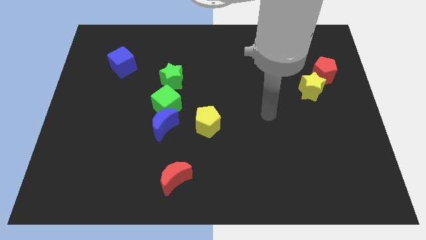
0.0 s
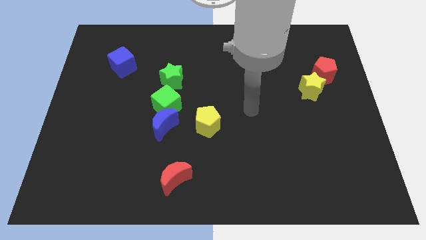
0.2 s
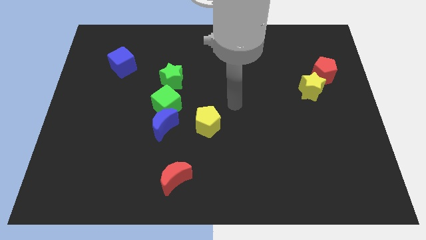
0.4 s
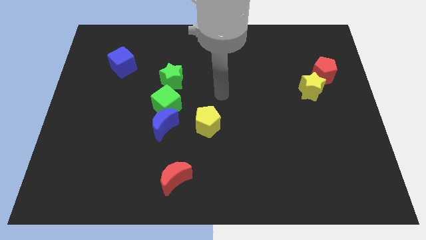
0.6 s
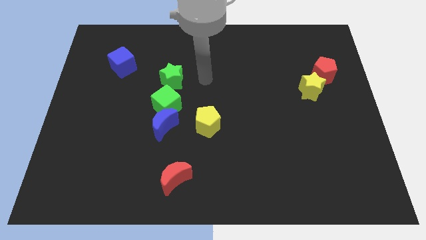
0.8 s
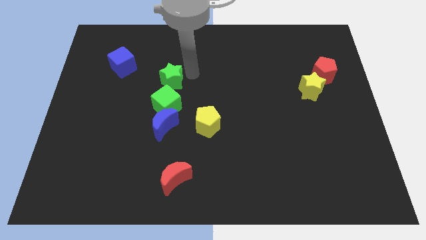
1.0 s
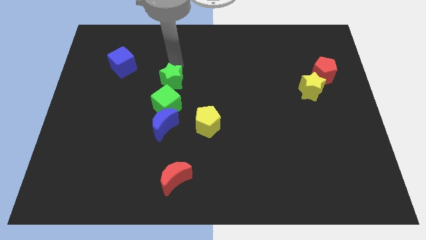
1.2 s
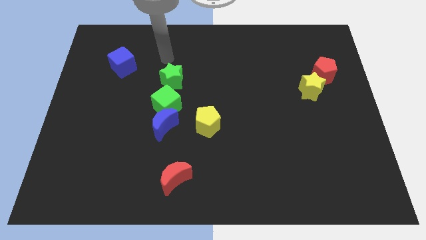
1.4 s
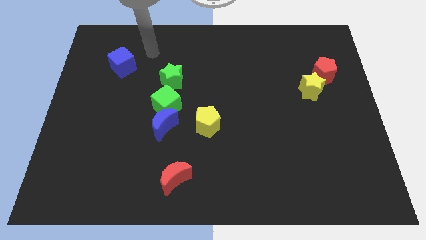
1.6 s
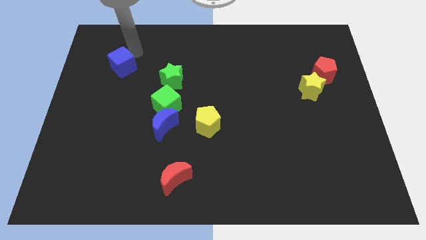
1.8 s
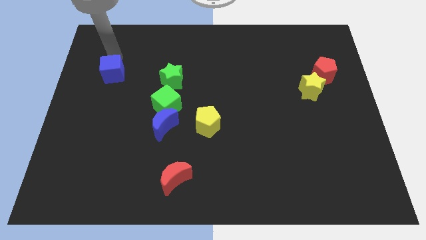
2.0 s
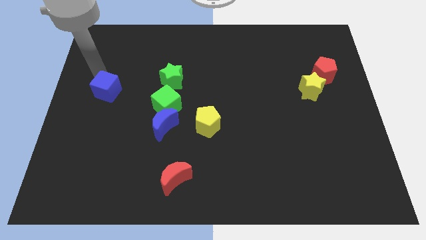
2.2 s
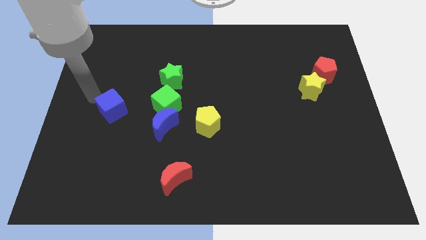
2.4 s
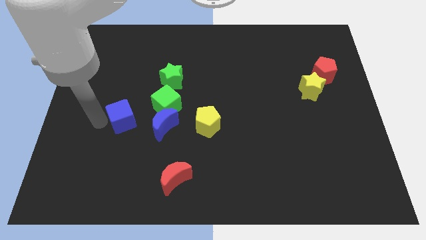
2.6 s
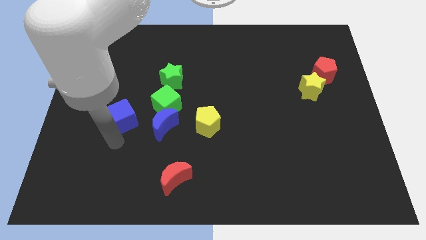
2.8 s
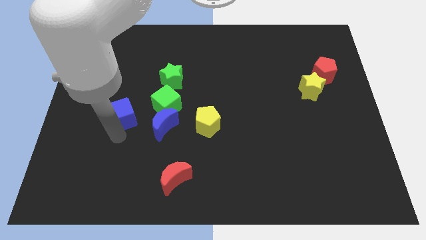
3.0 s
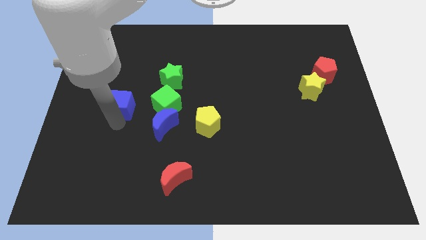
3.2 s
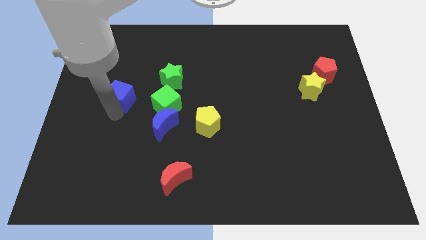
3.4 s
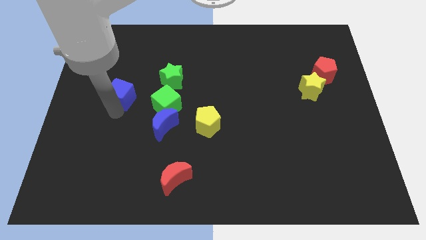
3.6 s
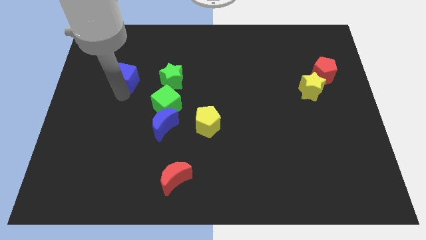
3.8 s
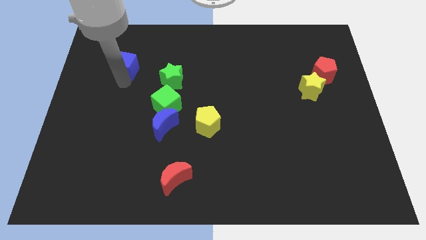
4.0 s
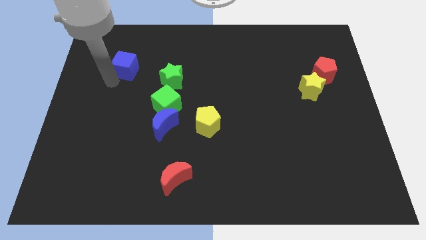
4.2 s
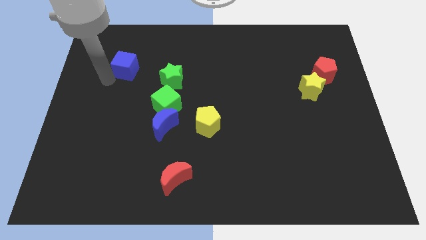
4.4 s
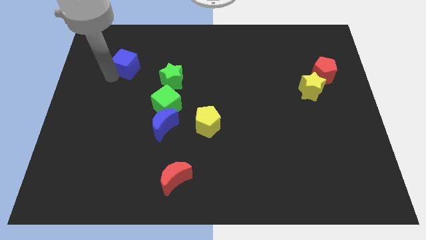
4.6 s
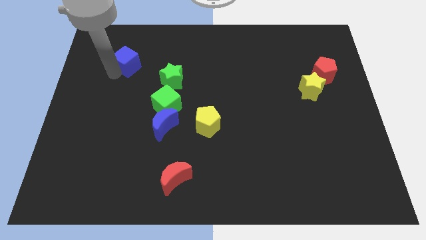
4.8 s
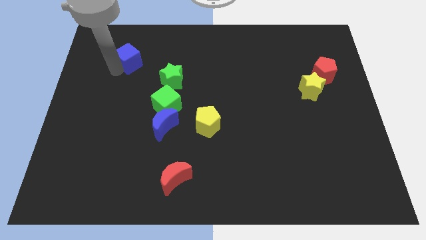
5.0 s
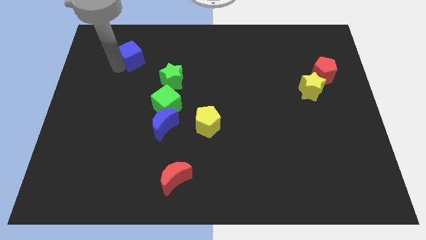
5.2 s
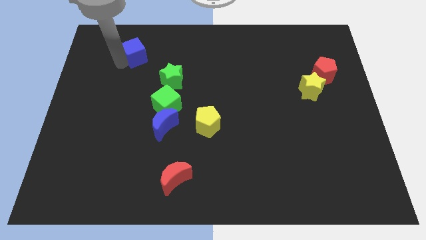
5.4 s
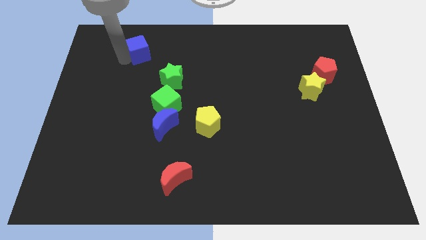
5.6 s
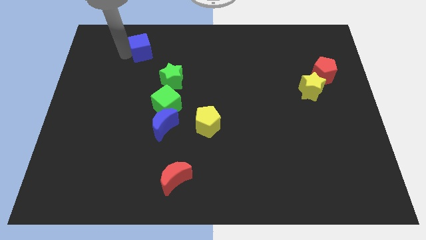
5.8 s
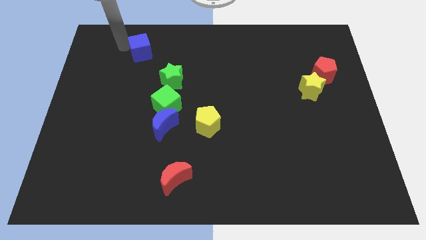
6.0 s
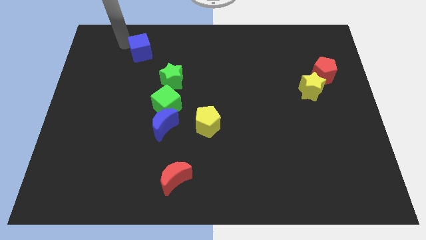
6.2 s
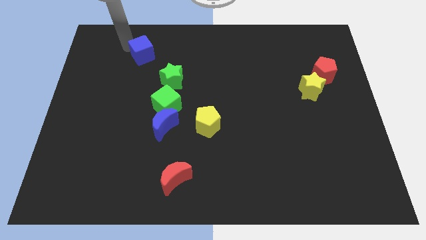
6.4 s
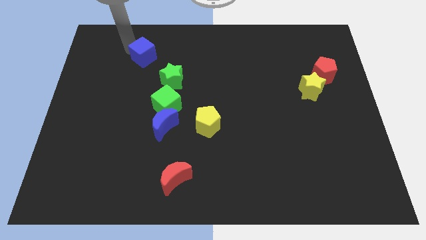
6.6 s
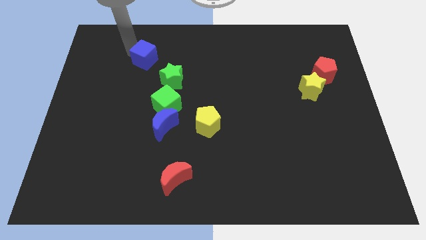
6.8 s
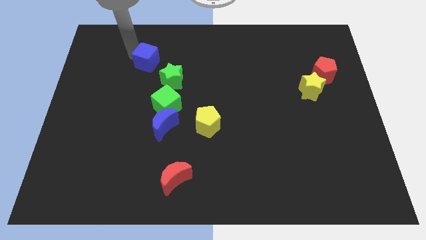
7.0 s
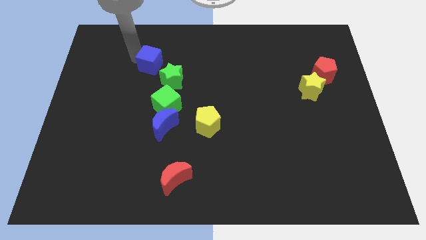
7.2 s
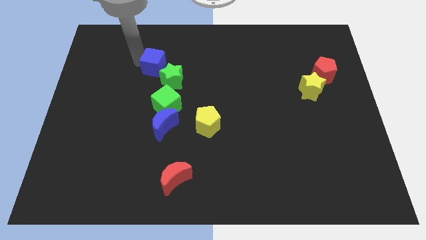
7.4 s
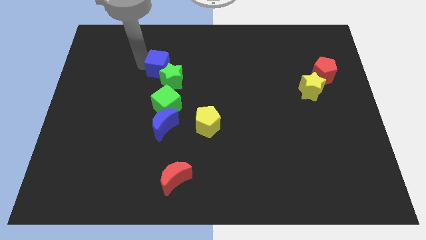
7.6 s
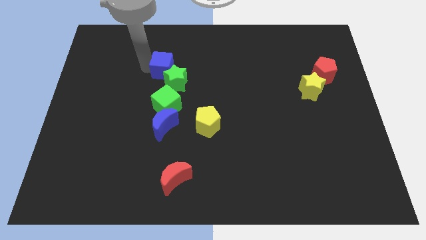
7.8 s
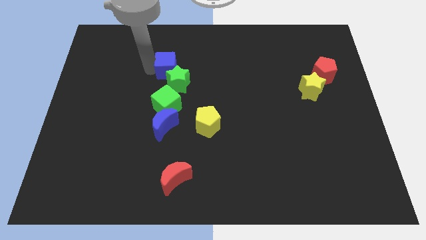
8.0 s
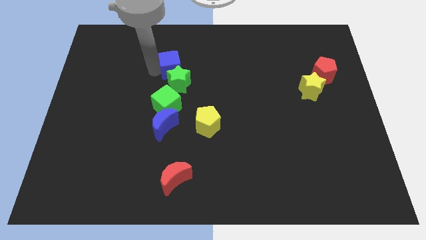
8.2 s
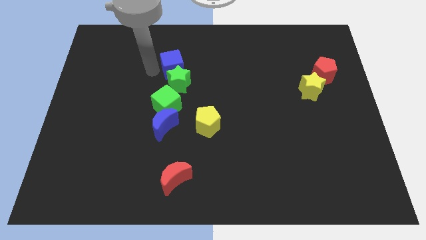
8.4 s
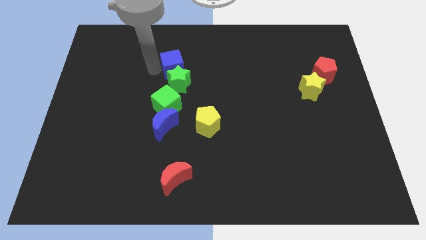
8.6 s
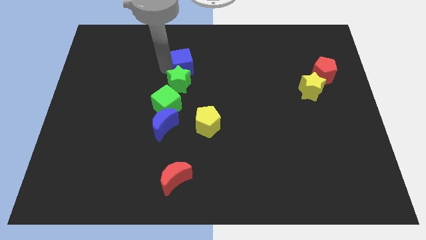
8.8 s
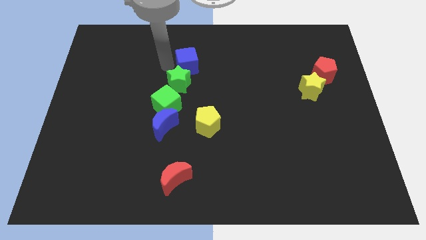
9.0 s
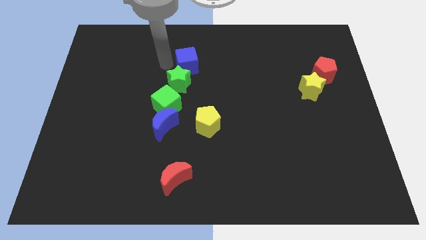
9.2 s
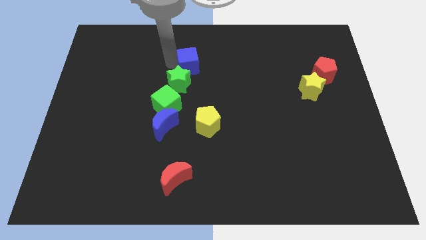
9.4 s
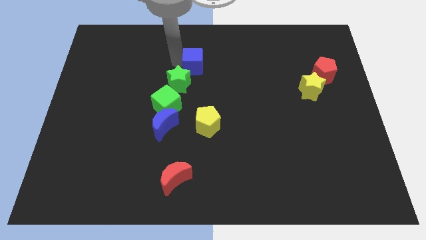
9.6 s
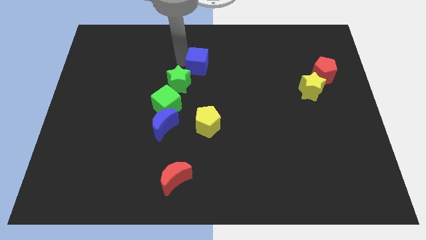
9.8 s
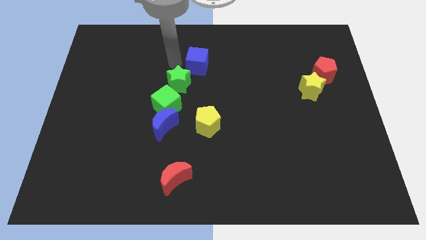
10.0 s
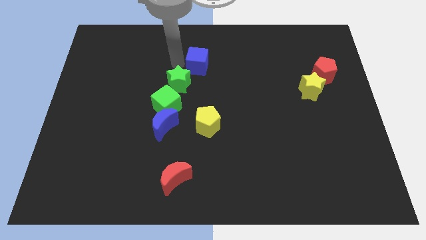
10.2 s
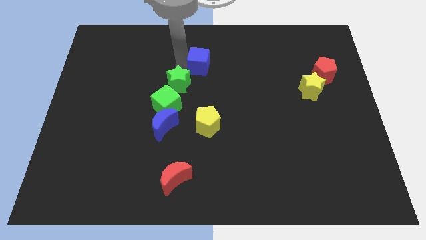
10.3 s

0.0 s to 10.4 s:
move the blue cube right

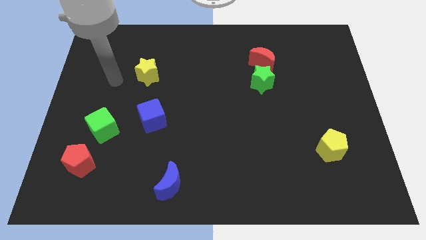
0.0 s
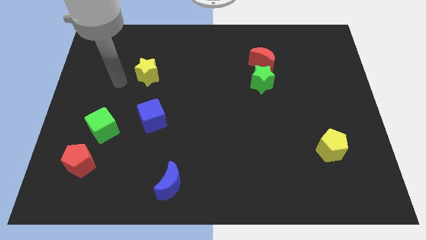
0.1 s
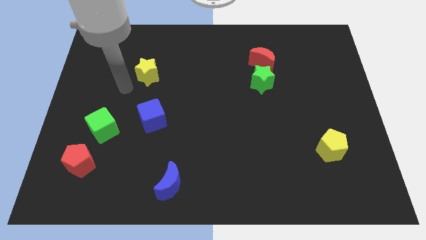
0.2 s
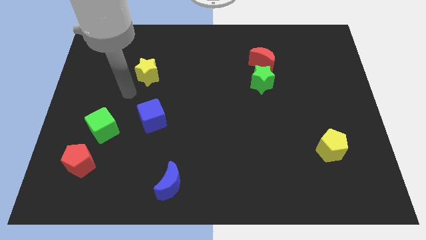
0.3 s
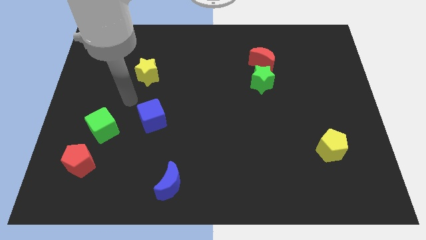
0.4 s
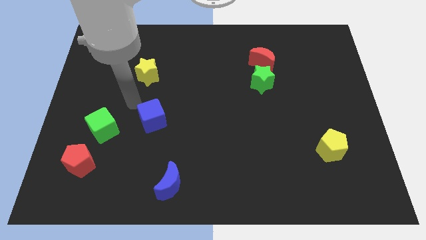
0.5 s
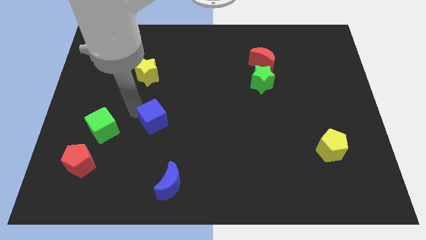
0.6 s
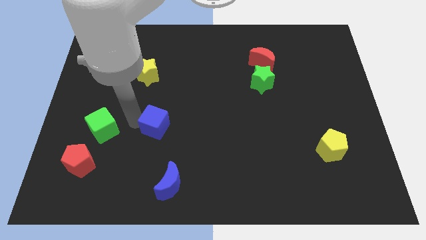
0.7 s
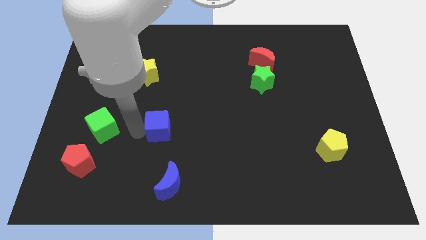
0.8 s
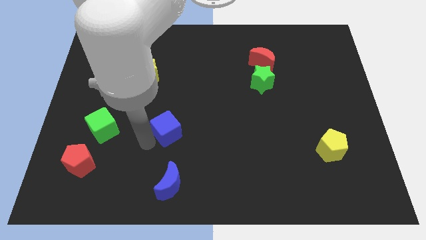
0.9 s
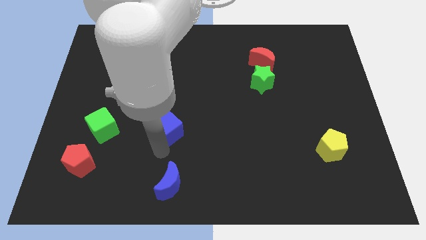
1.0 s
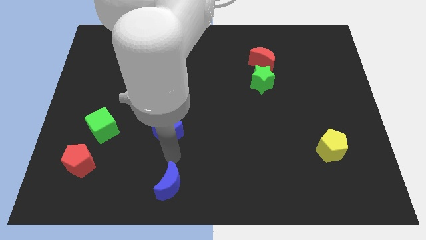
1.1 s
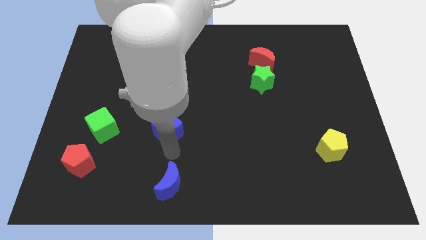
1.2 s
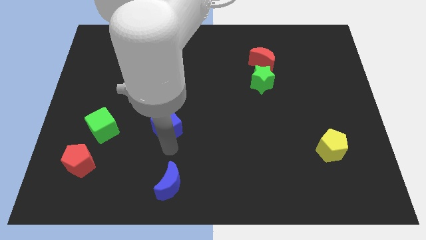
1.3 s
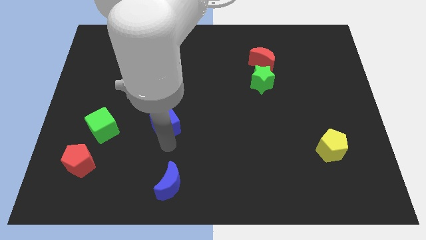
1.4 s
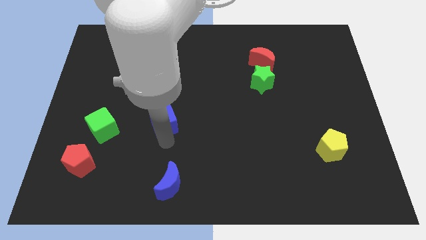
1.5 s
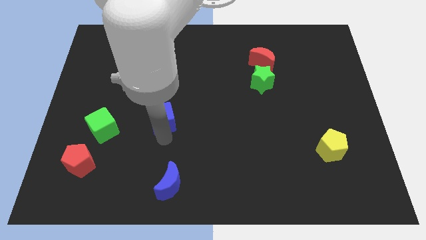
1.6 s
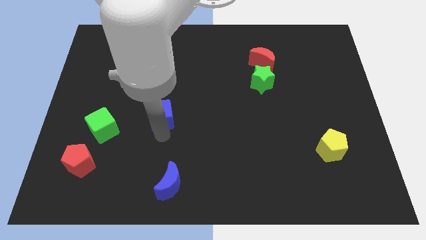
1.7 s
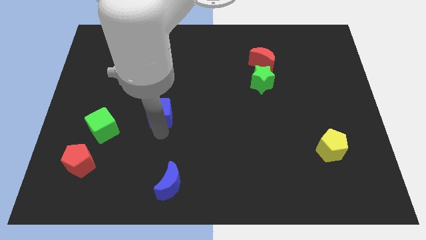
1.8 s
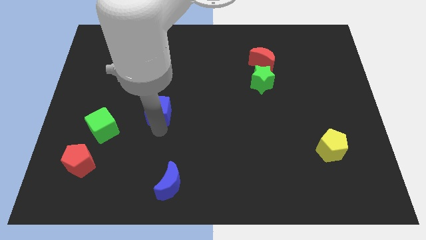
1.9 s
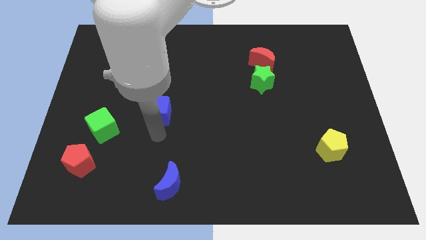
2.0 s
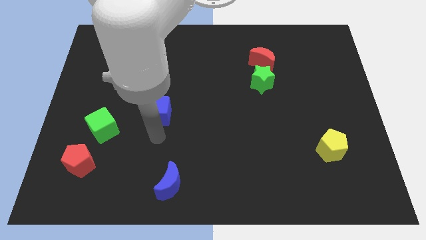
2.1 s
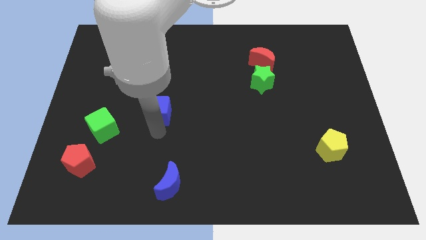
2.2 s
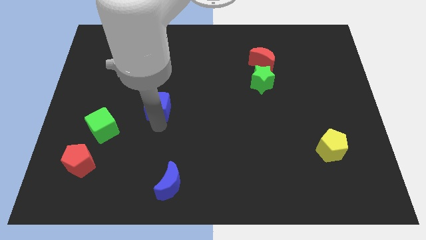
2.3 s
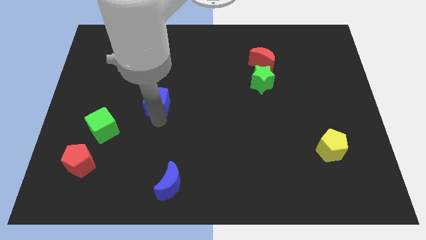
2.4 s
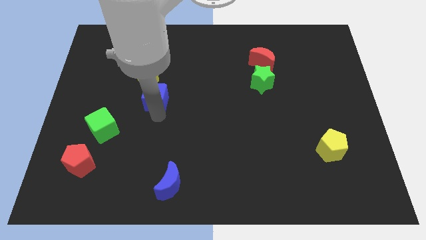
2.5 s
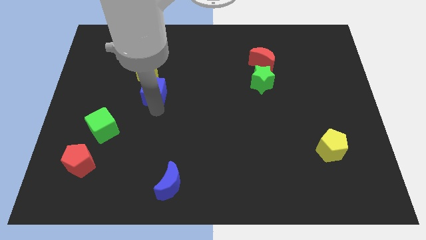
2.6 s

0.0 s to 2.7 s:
slightly move the blue cube upwards
